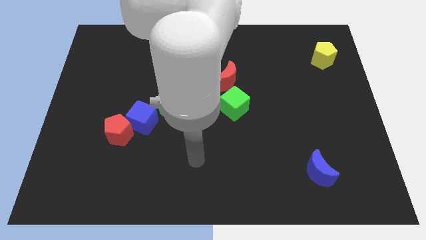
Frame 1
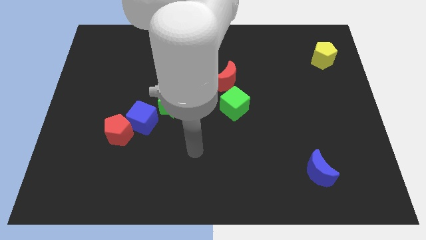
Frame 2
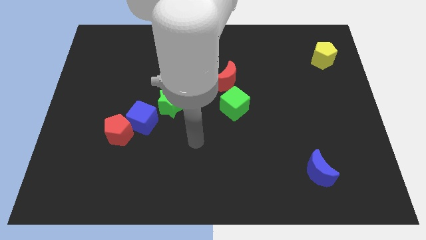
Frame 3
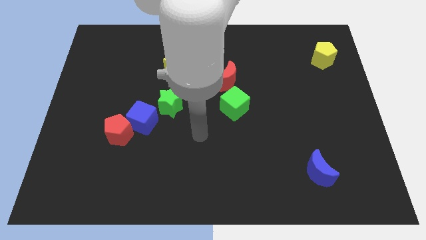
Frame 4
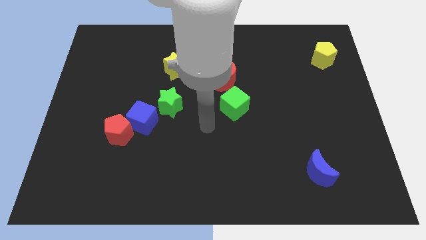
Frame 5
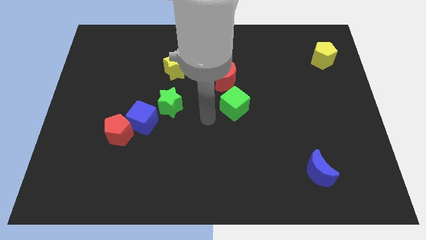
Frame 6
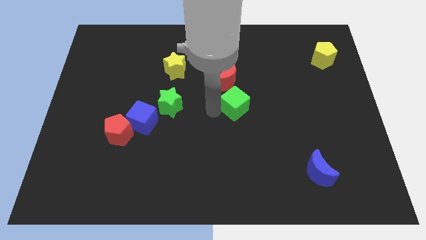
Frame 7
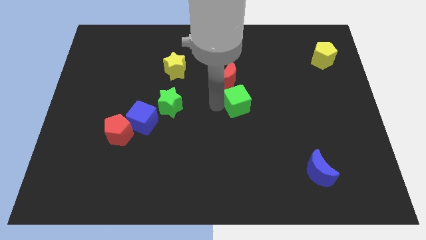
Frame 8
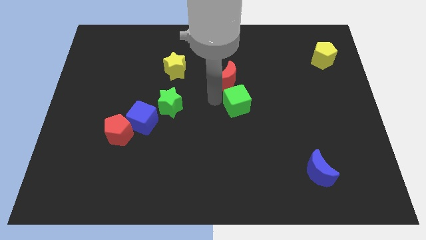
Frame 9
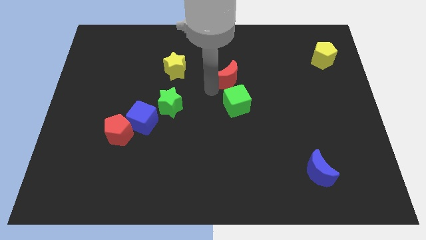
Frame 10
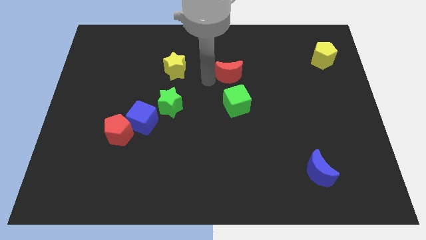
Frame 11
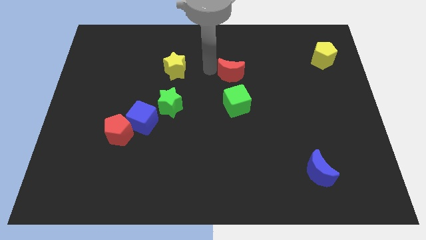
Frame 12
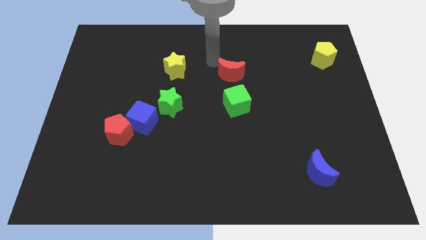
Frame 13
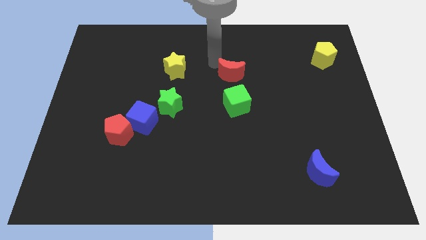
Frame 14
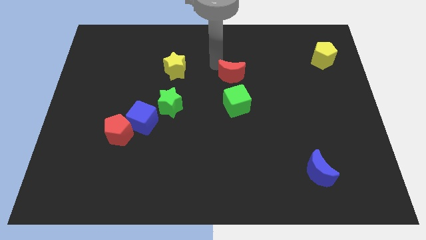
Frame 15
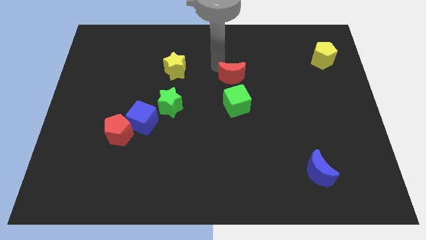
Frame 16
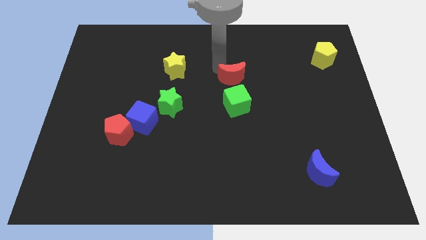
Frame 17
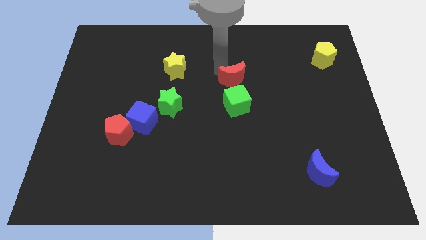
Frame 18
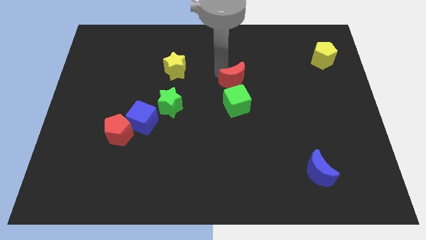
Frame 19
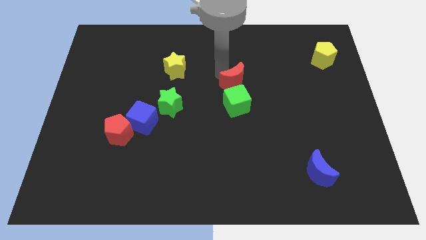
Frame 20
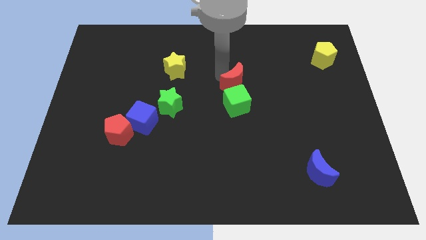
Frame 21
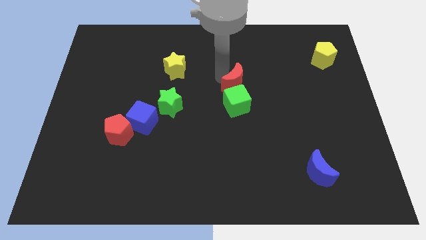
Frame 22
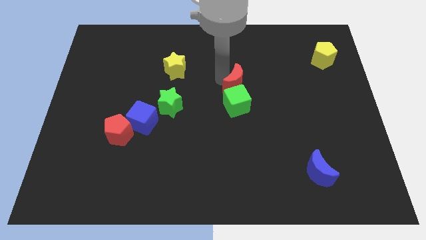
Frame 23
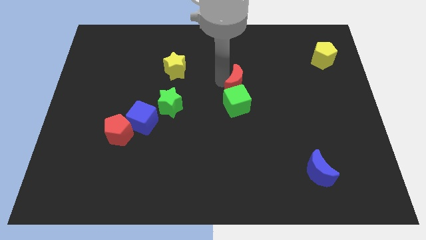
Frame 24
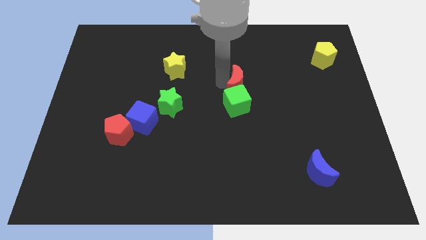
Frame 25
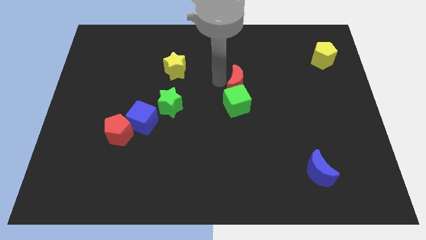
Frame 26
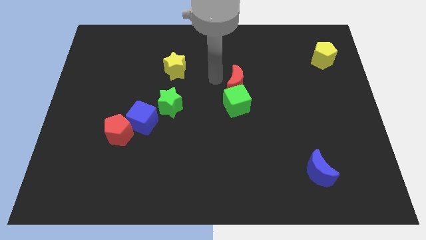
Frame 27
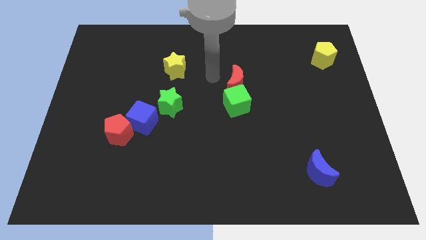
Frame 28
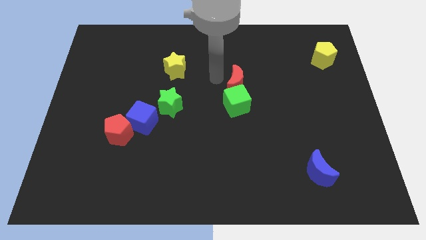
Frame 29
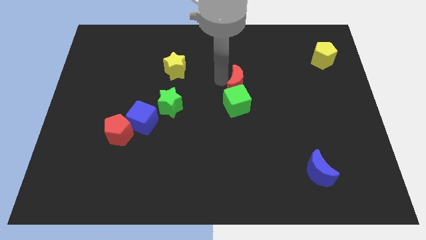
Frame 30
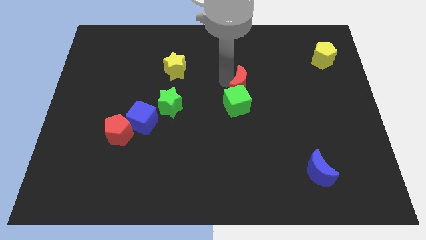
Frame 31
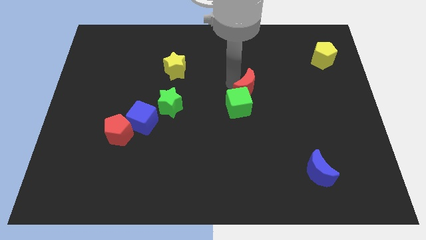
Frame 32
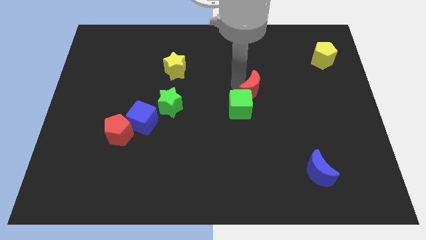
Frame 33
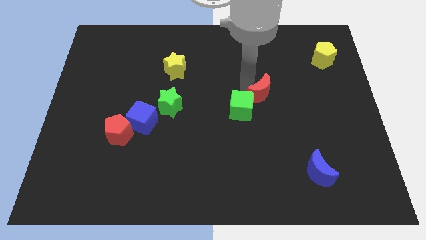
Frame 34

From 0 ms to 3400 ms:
slightly move the red moon down and then to the right

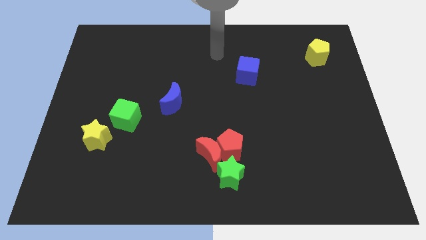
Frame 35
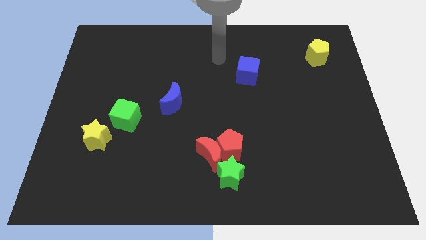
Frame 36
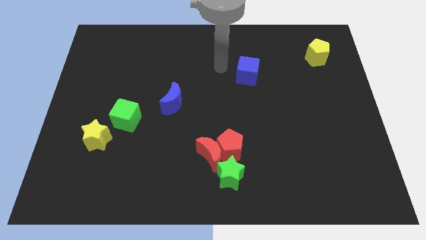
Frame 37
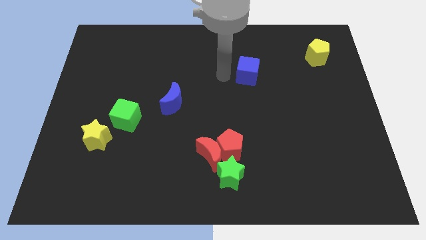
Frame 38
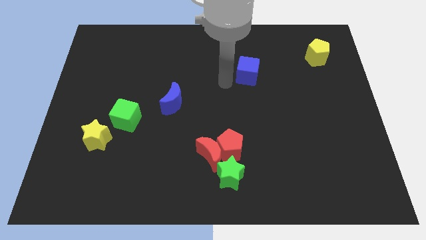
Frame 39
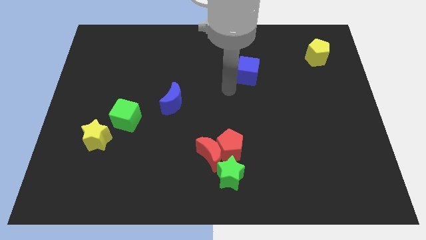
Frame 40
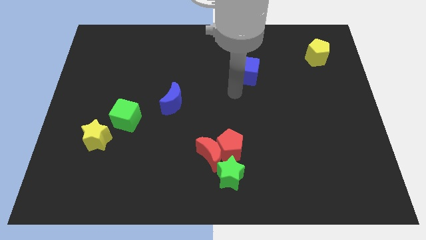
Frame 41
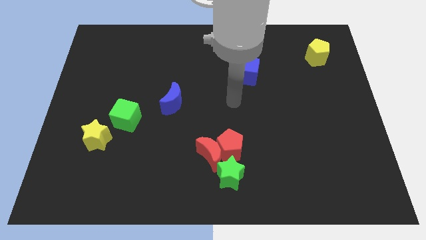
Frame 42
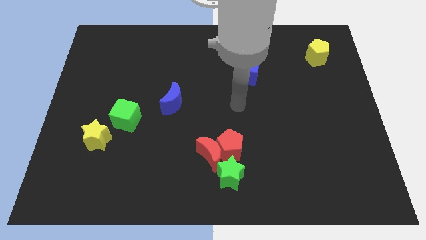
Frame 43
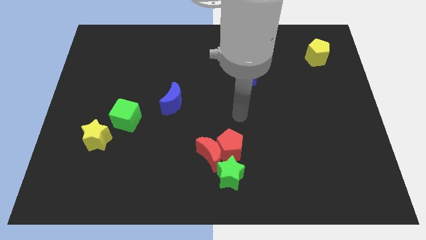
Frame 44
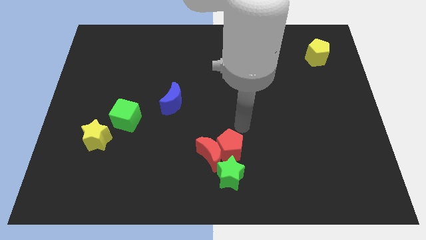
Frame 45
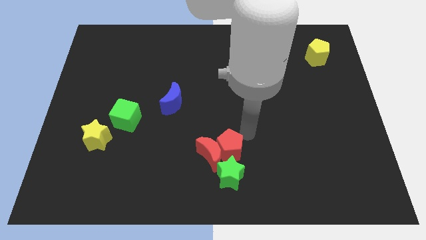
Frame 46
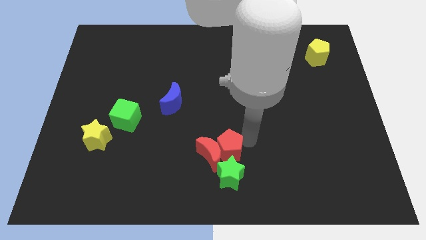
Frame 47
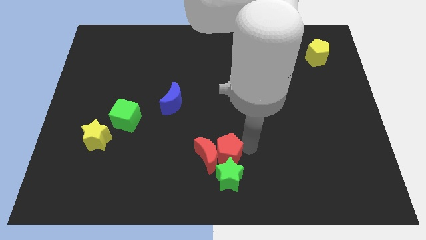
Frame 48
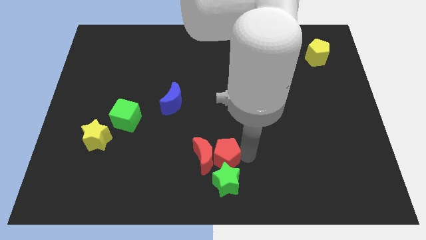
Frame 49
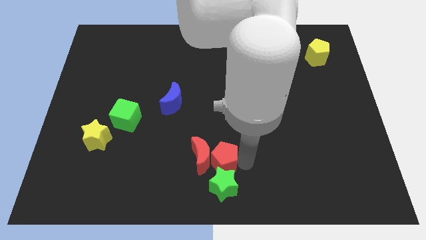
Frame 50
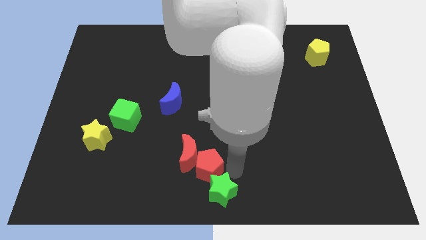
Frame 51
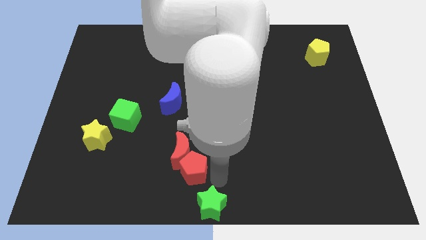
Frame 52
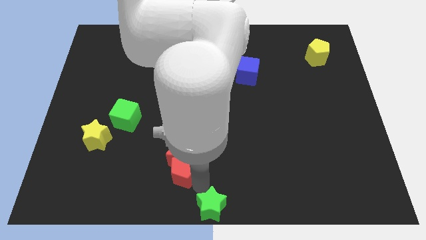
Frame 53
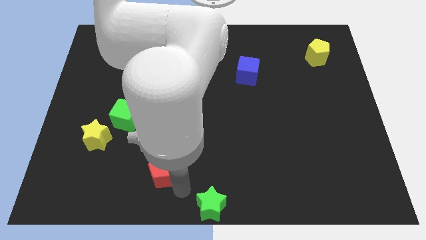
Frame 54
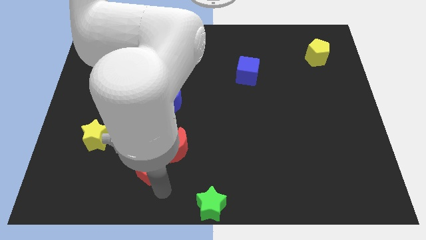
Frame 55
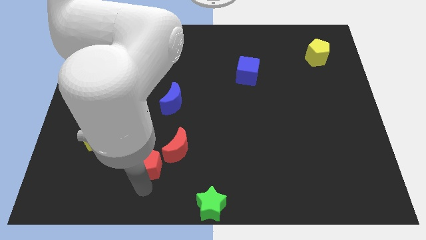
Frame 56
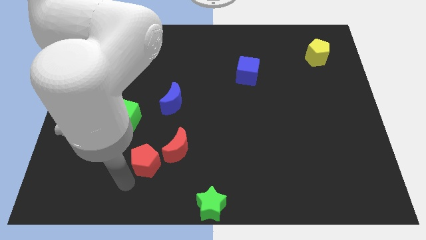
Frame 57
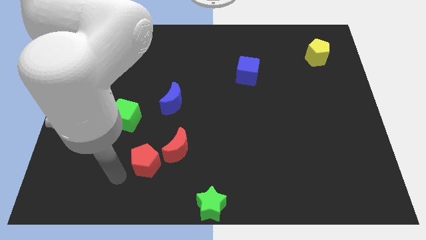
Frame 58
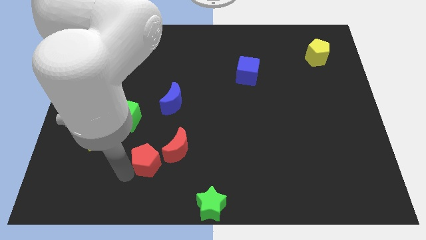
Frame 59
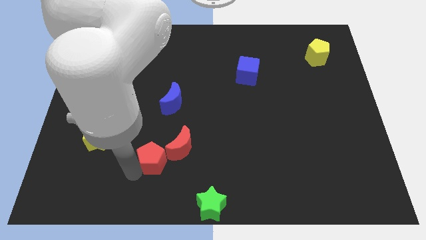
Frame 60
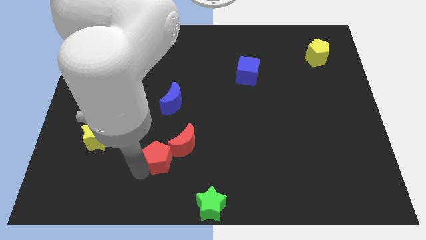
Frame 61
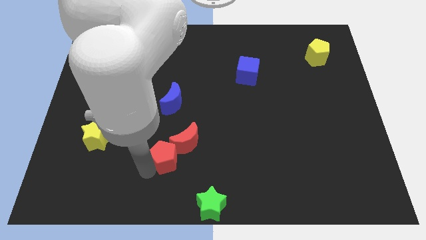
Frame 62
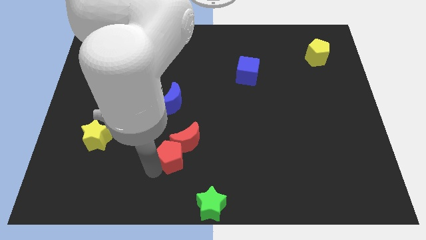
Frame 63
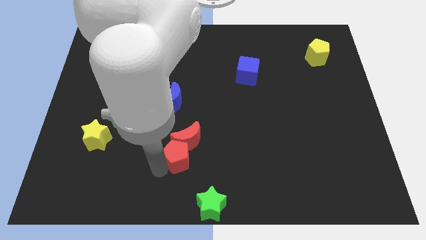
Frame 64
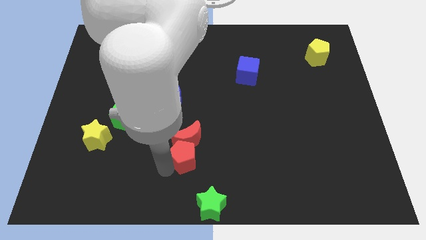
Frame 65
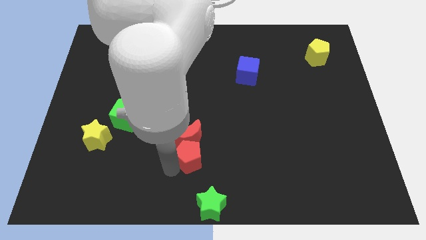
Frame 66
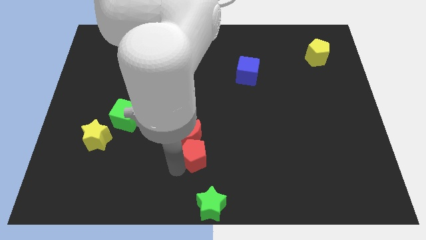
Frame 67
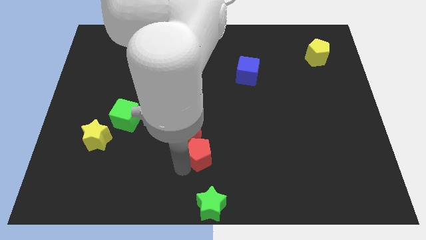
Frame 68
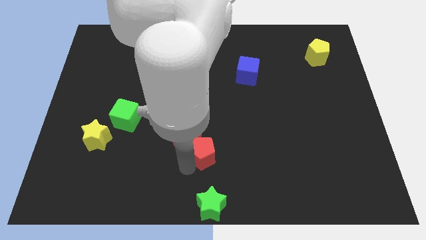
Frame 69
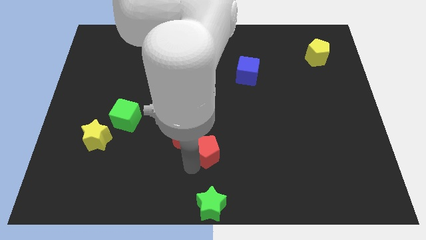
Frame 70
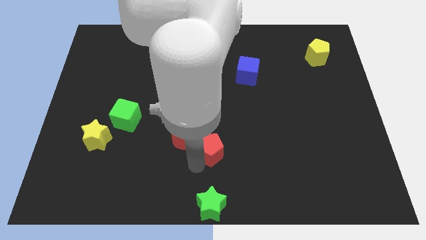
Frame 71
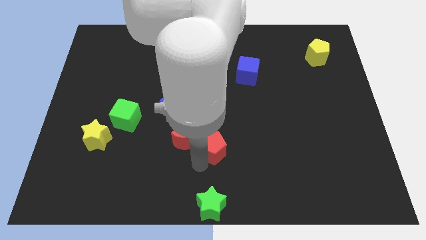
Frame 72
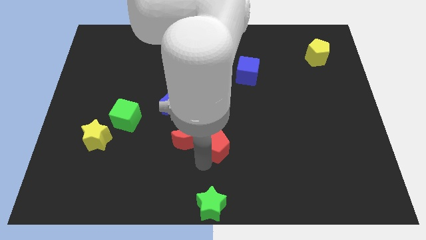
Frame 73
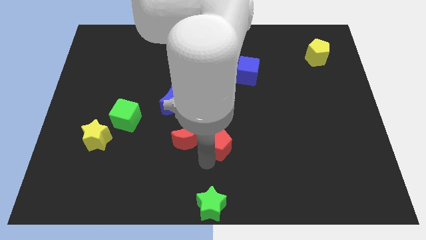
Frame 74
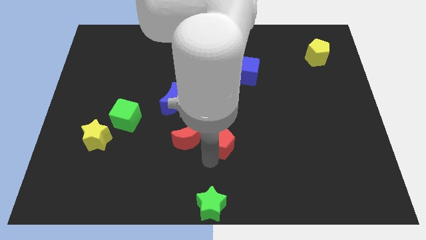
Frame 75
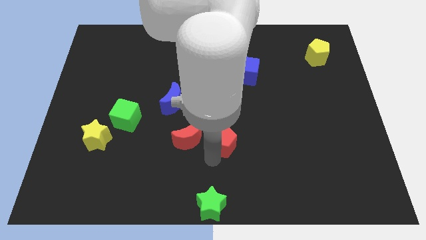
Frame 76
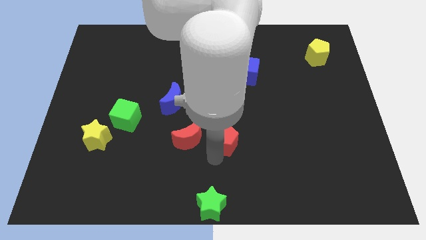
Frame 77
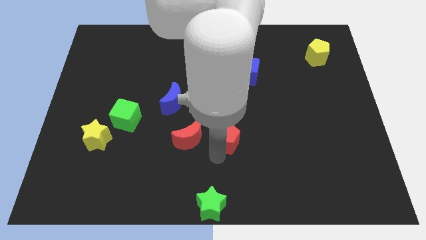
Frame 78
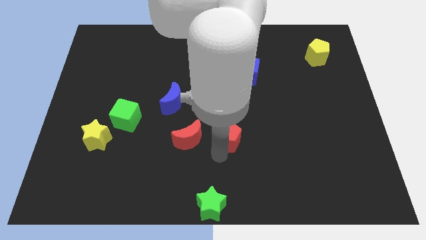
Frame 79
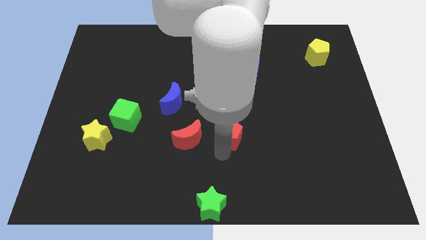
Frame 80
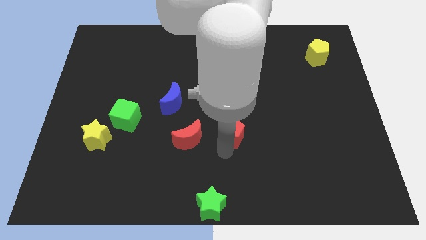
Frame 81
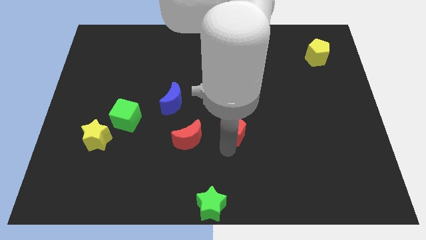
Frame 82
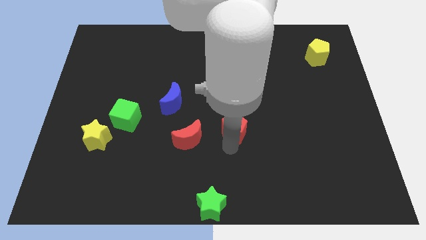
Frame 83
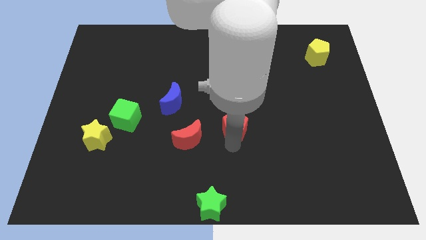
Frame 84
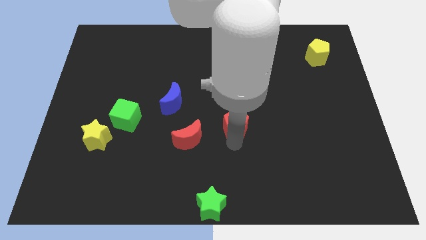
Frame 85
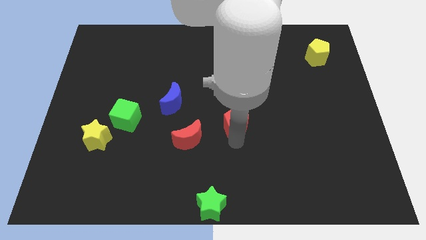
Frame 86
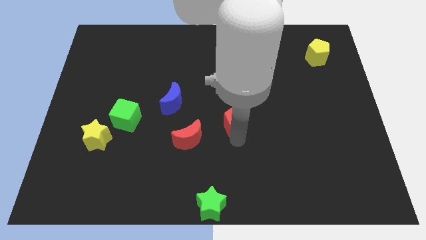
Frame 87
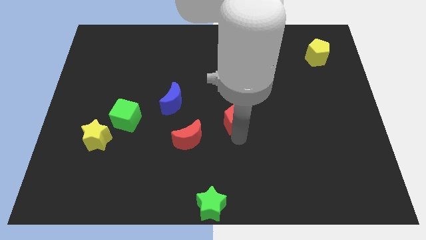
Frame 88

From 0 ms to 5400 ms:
slide the red pentagon somewhat up
